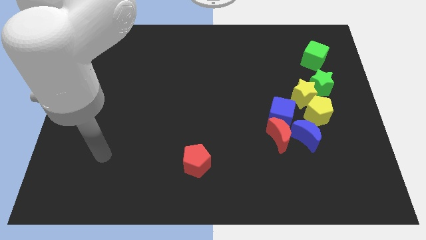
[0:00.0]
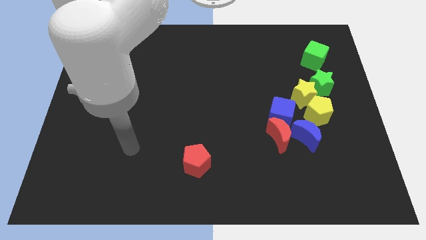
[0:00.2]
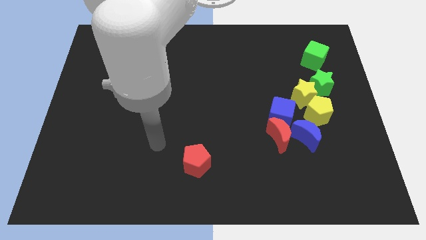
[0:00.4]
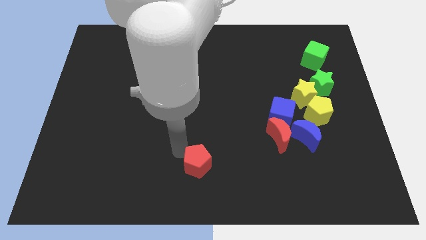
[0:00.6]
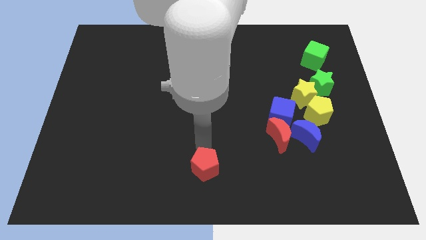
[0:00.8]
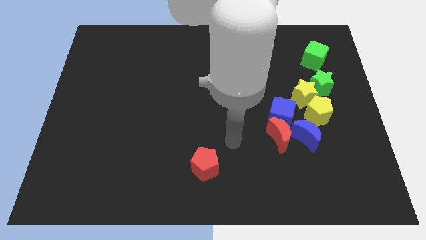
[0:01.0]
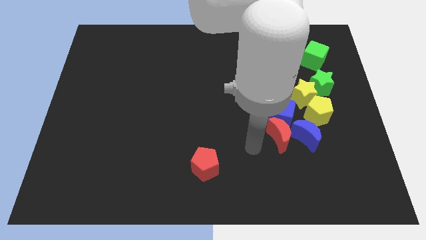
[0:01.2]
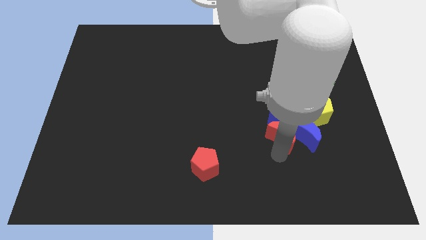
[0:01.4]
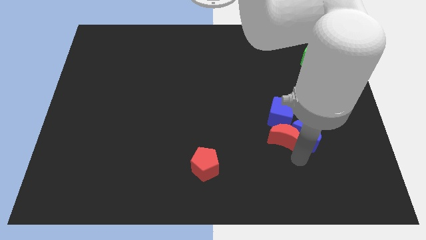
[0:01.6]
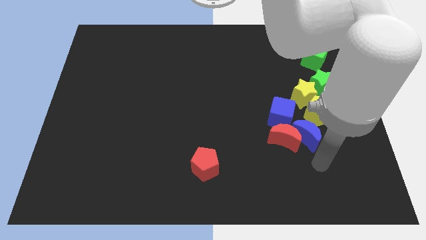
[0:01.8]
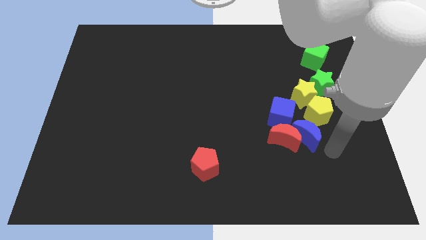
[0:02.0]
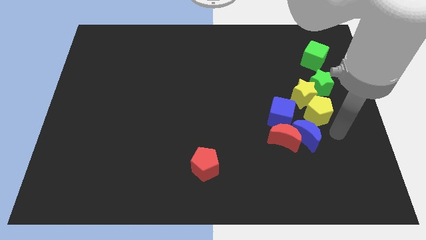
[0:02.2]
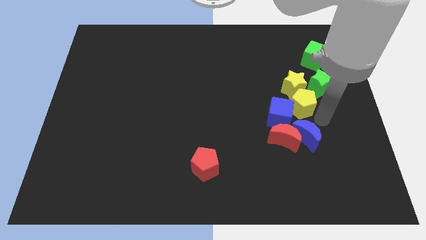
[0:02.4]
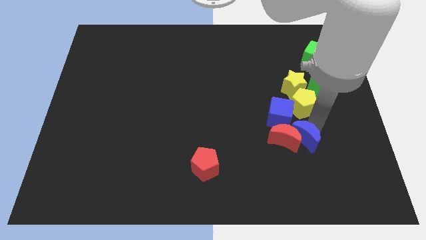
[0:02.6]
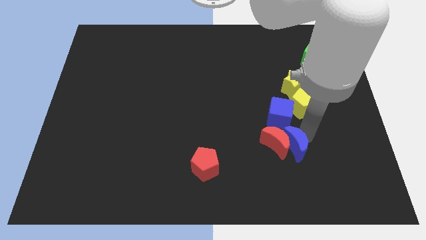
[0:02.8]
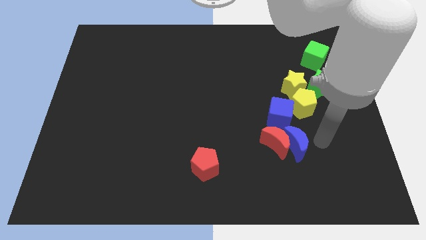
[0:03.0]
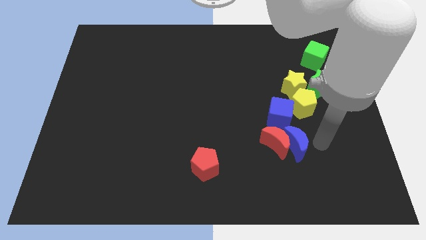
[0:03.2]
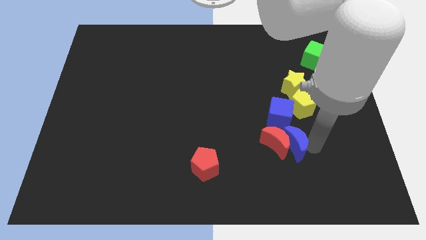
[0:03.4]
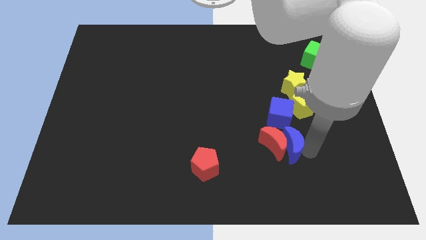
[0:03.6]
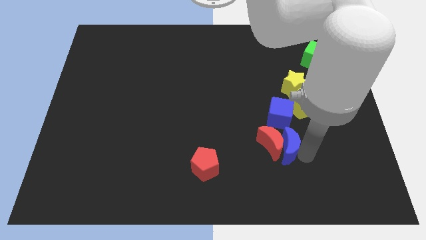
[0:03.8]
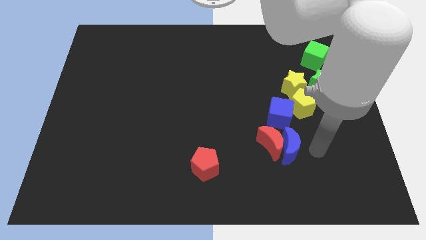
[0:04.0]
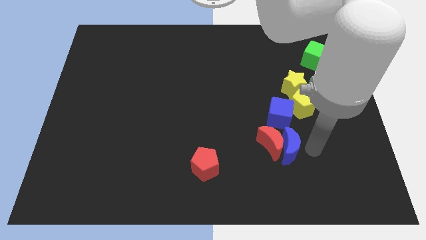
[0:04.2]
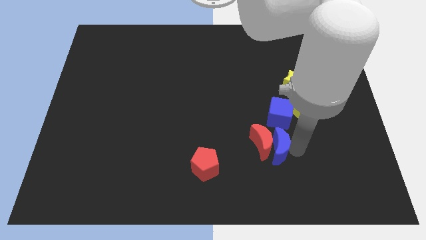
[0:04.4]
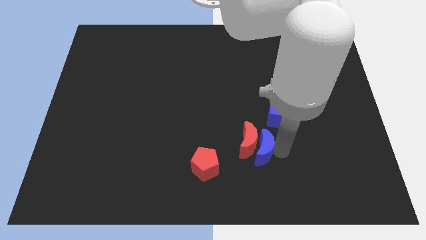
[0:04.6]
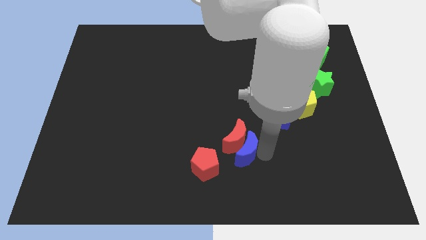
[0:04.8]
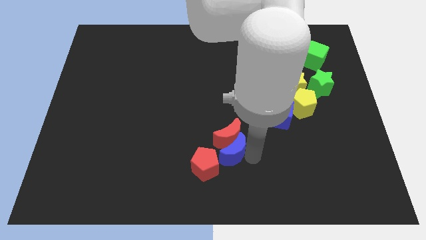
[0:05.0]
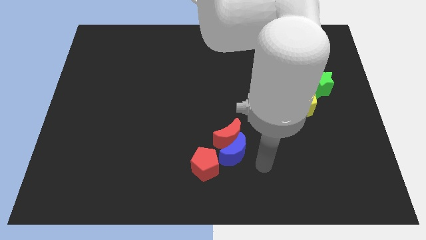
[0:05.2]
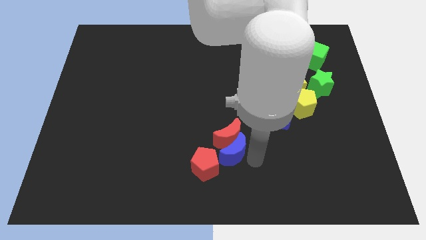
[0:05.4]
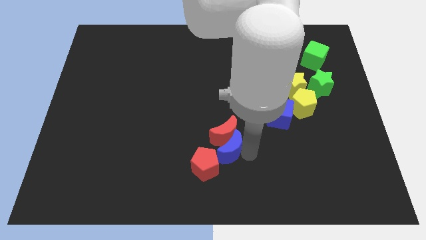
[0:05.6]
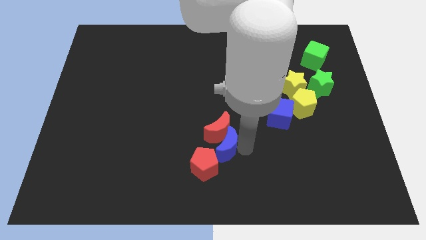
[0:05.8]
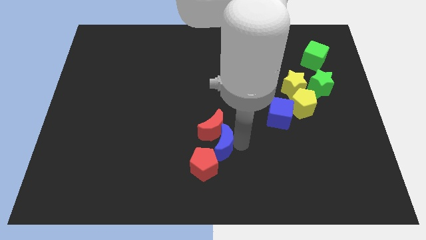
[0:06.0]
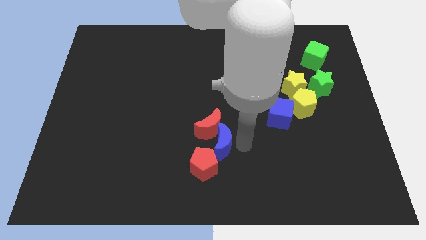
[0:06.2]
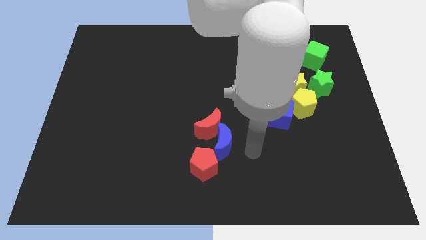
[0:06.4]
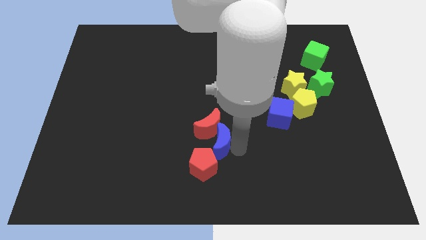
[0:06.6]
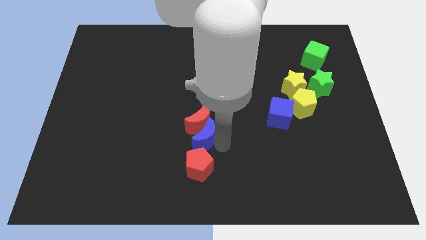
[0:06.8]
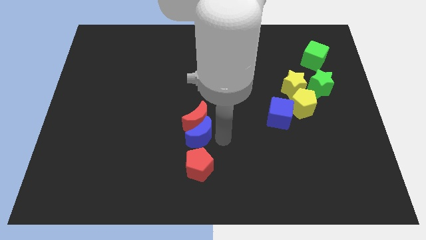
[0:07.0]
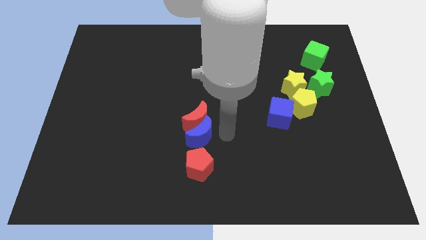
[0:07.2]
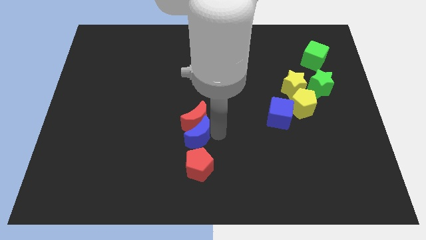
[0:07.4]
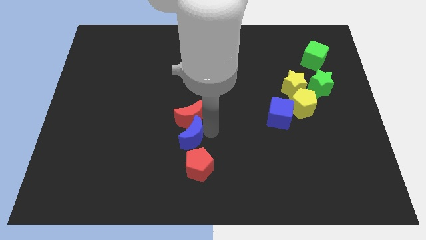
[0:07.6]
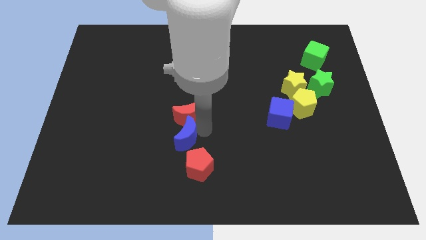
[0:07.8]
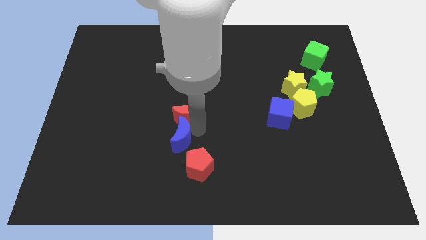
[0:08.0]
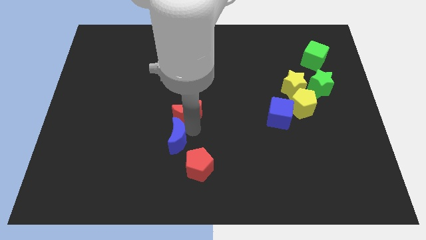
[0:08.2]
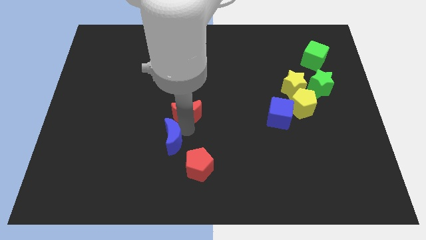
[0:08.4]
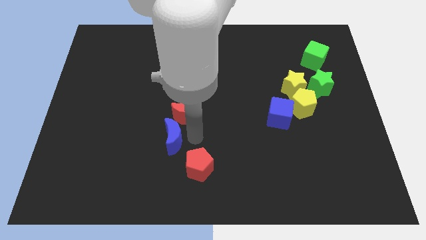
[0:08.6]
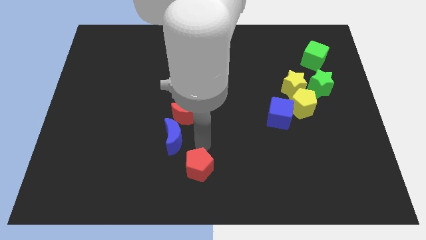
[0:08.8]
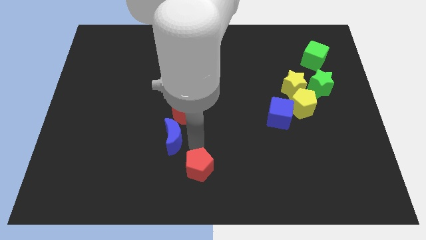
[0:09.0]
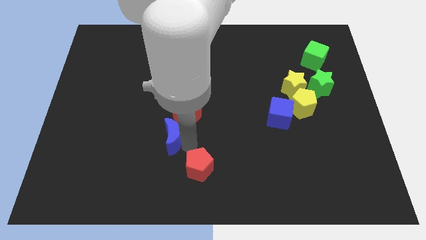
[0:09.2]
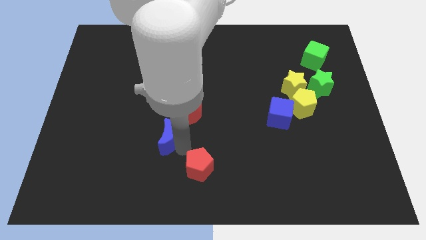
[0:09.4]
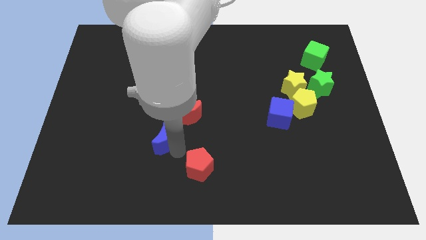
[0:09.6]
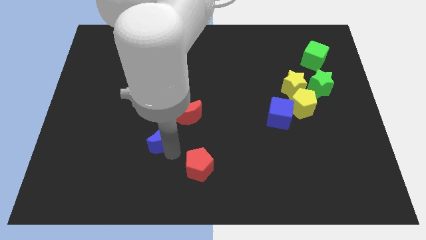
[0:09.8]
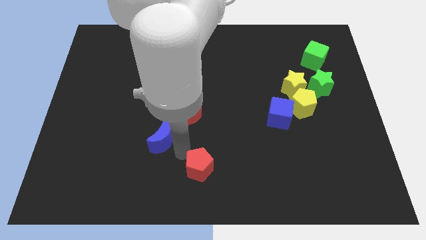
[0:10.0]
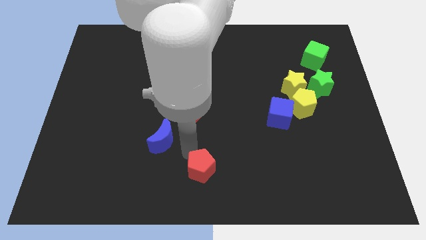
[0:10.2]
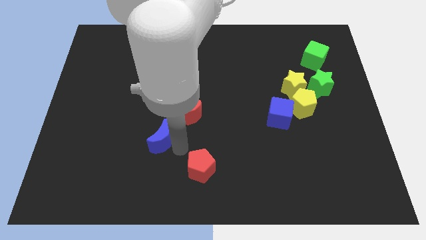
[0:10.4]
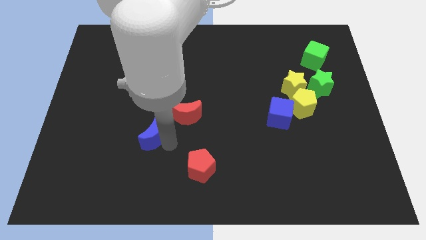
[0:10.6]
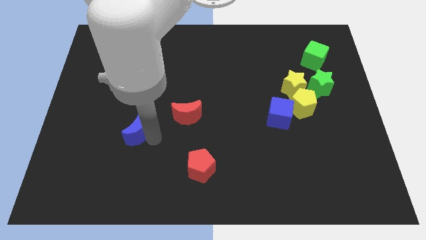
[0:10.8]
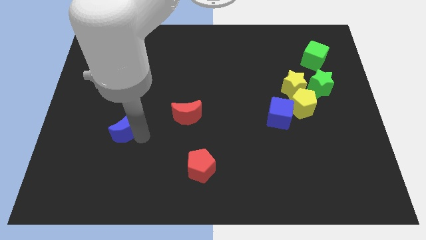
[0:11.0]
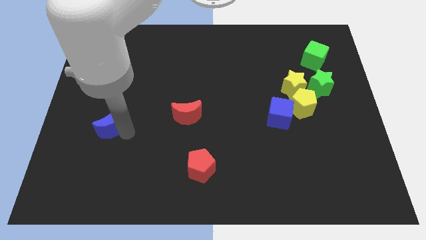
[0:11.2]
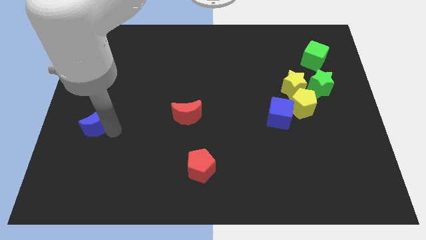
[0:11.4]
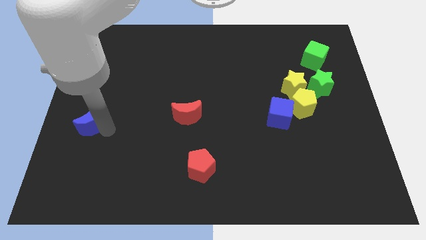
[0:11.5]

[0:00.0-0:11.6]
move the blue moon to the left side
